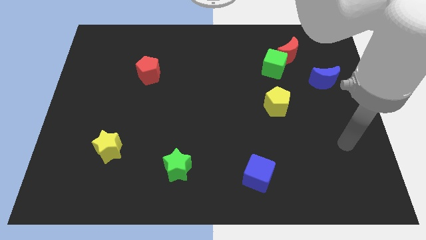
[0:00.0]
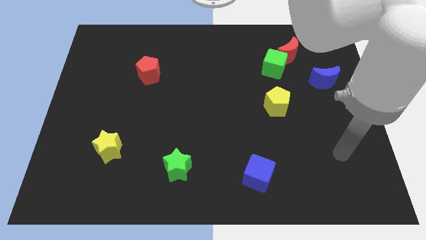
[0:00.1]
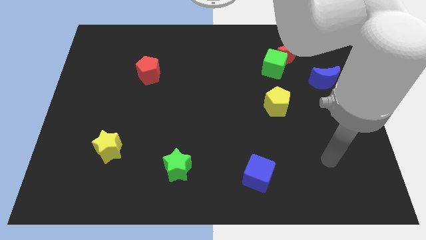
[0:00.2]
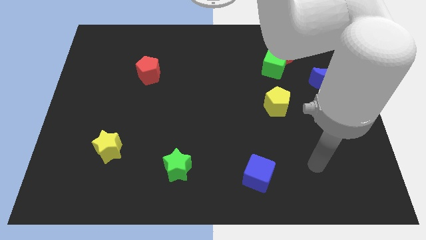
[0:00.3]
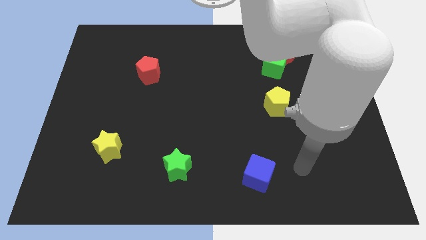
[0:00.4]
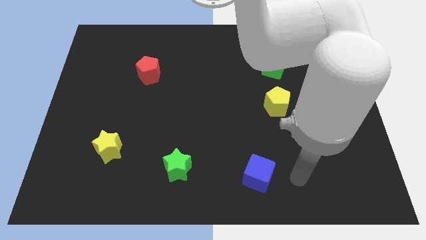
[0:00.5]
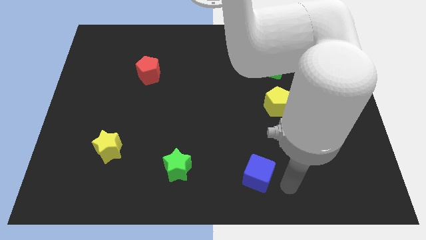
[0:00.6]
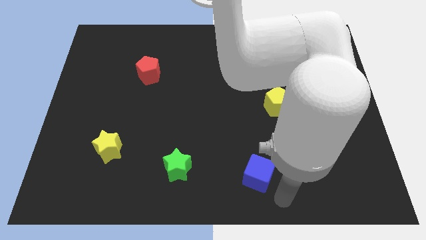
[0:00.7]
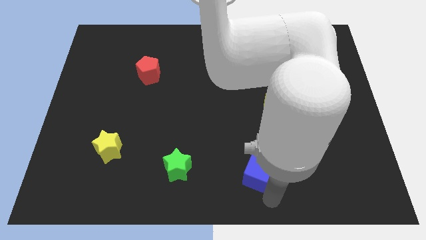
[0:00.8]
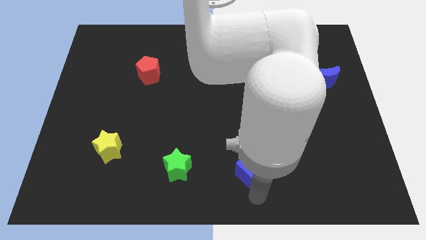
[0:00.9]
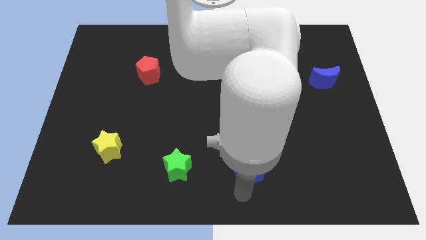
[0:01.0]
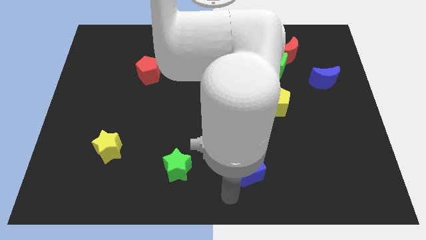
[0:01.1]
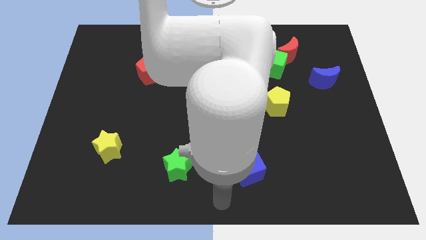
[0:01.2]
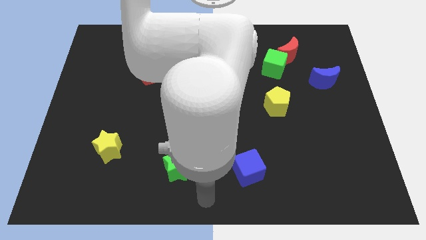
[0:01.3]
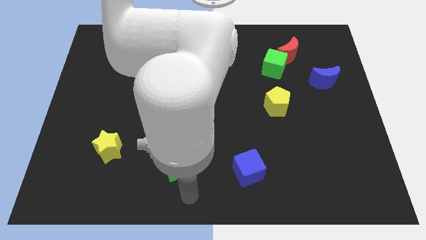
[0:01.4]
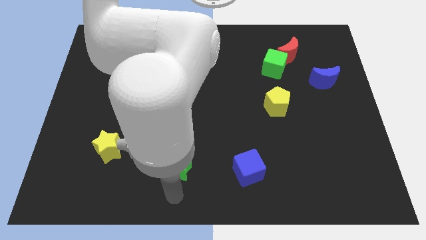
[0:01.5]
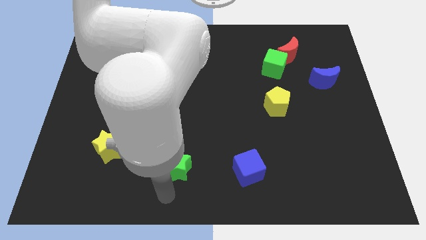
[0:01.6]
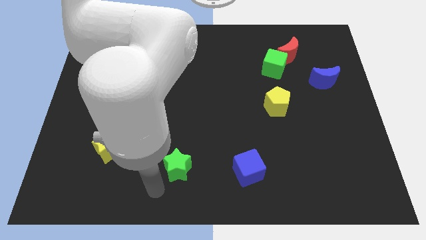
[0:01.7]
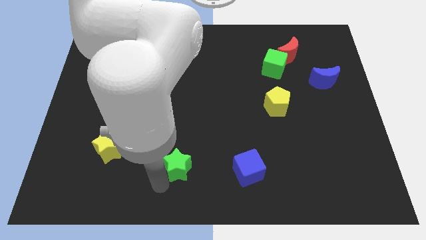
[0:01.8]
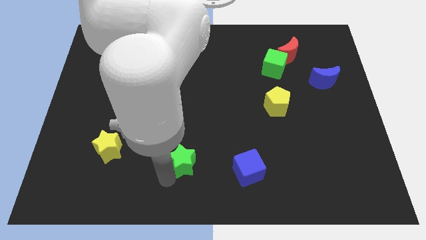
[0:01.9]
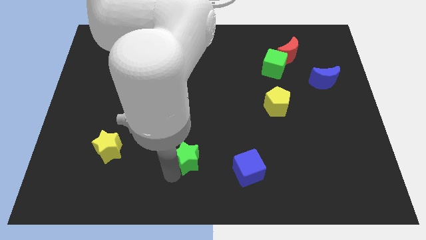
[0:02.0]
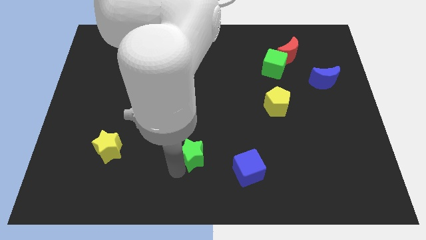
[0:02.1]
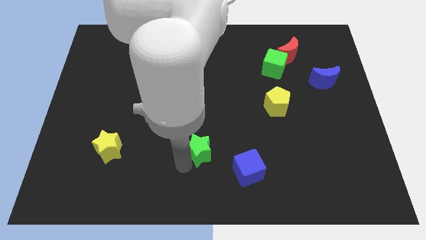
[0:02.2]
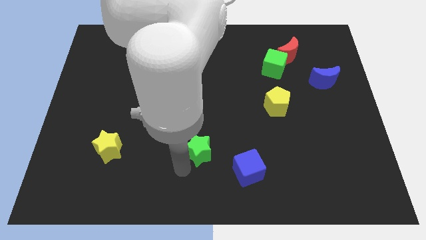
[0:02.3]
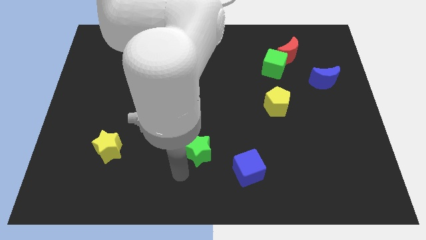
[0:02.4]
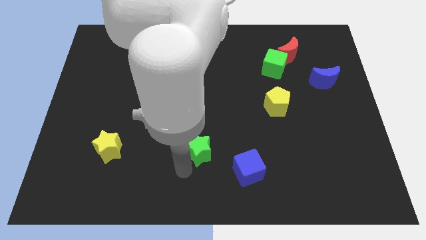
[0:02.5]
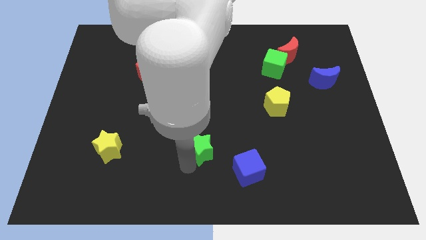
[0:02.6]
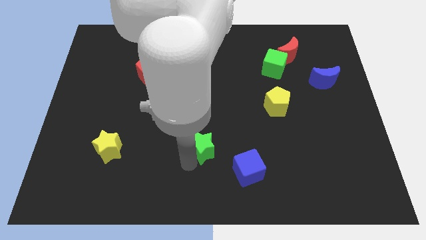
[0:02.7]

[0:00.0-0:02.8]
move the green star a bit upwards and right

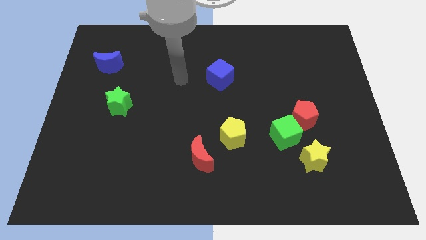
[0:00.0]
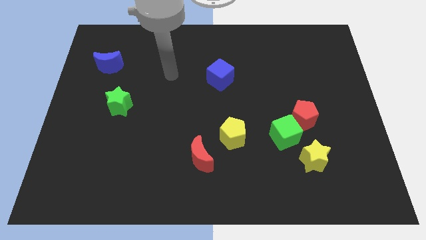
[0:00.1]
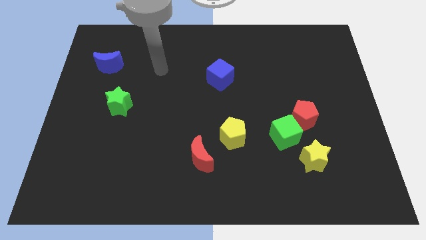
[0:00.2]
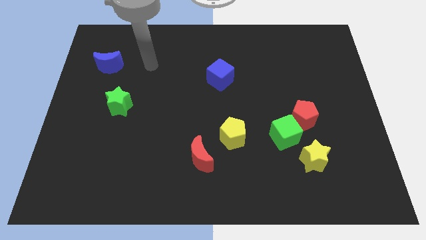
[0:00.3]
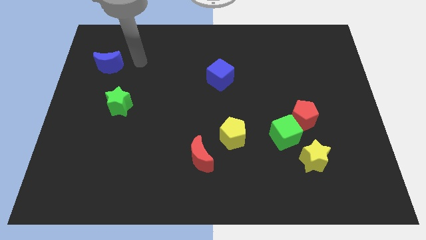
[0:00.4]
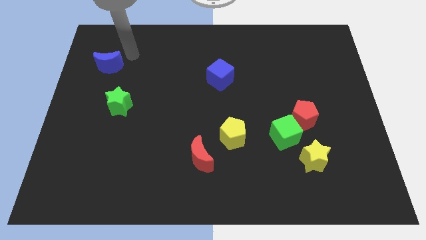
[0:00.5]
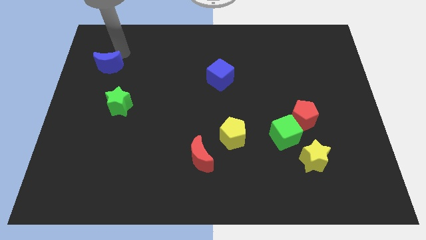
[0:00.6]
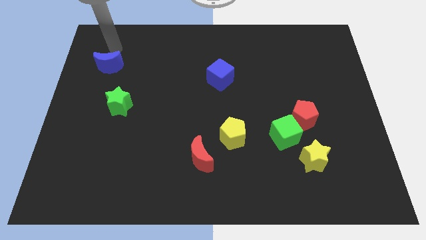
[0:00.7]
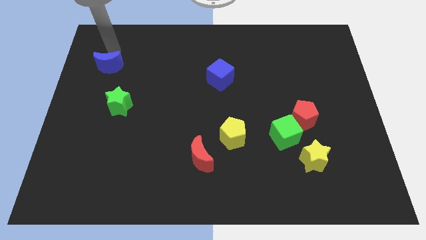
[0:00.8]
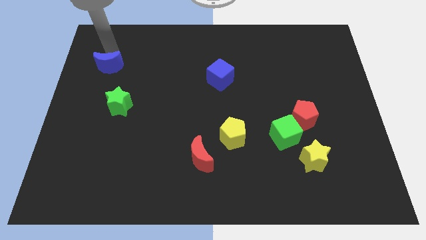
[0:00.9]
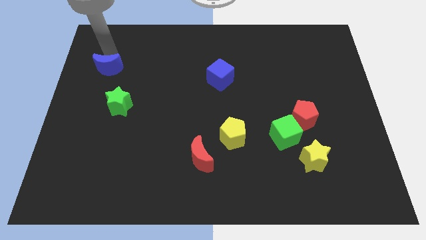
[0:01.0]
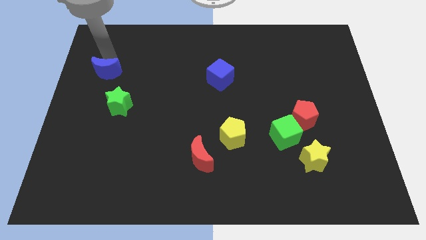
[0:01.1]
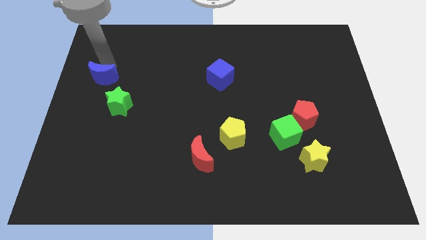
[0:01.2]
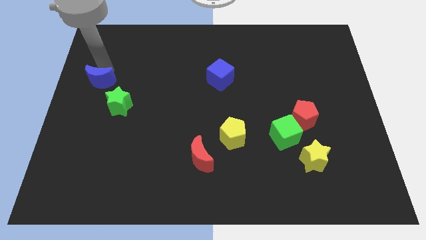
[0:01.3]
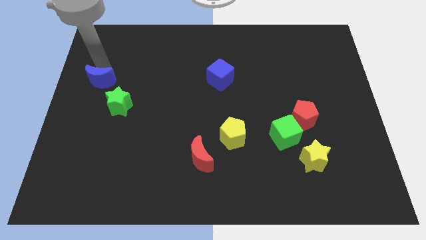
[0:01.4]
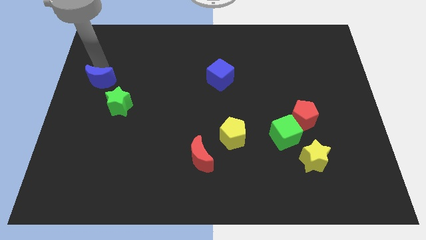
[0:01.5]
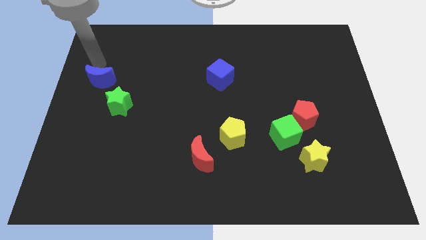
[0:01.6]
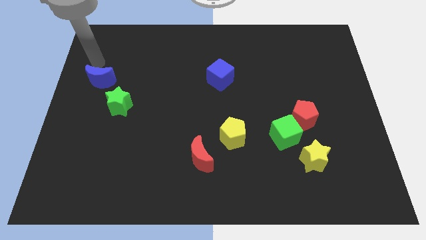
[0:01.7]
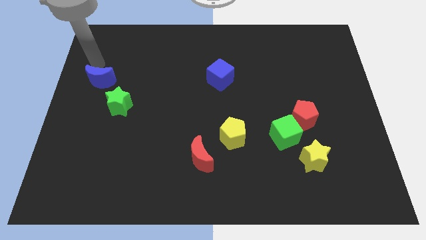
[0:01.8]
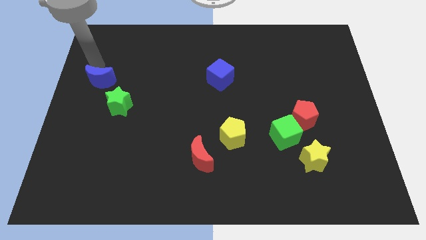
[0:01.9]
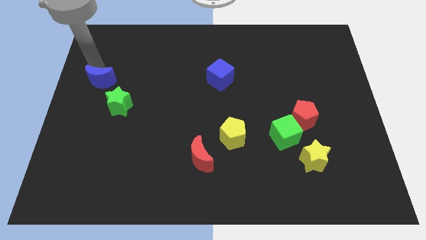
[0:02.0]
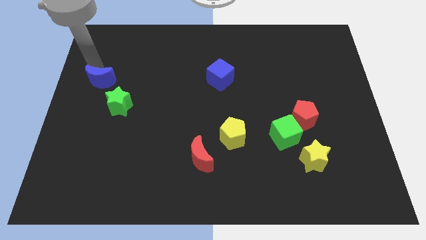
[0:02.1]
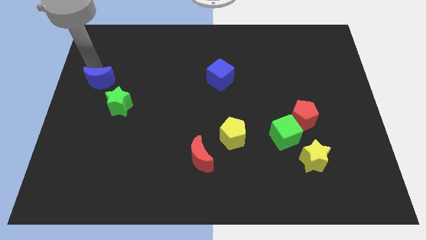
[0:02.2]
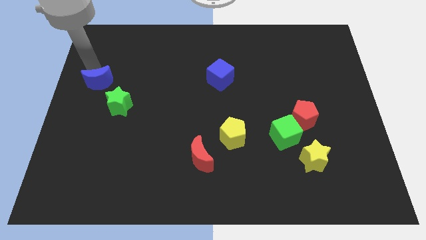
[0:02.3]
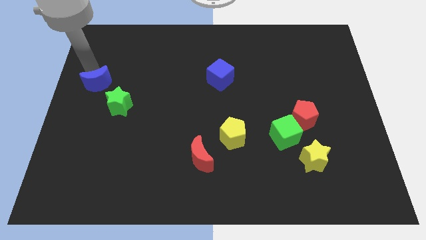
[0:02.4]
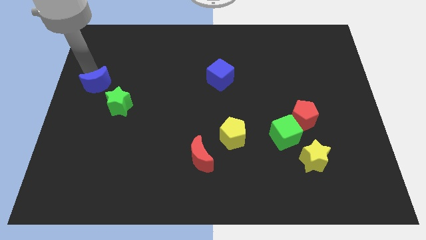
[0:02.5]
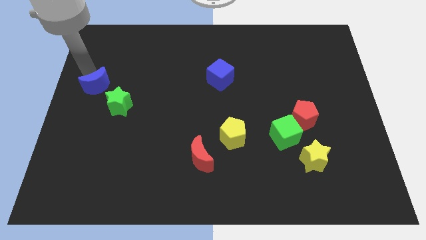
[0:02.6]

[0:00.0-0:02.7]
slightly slide the blue moon down

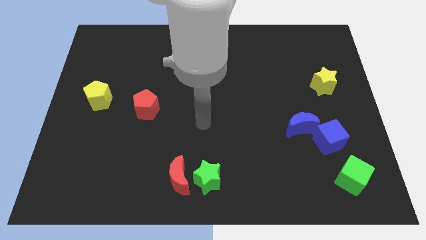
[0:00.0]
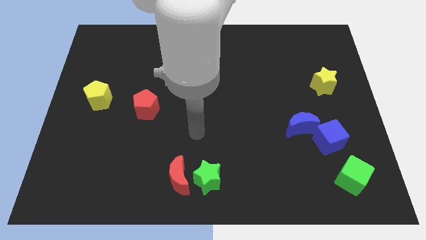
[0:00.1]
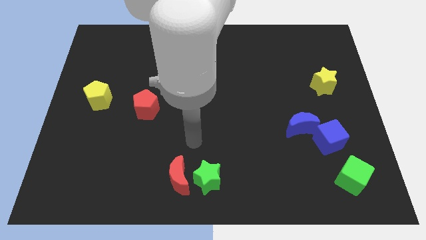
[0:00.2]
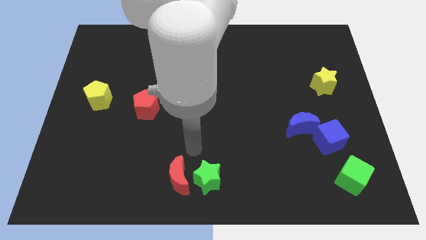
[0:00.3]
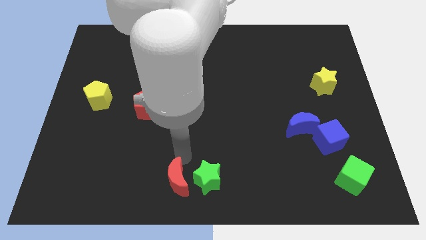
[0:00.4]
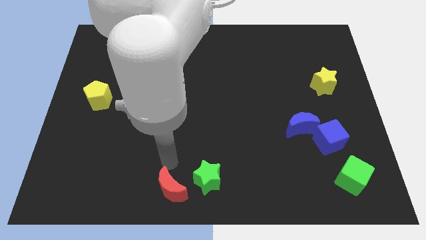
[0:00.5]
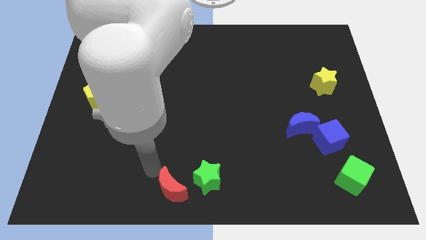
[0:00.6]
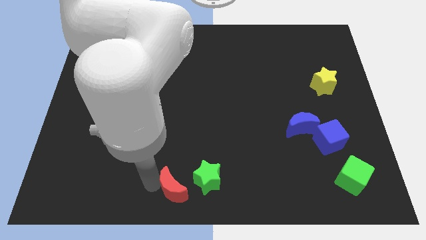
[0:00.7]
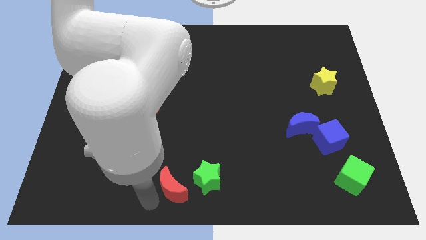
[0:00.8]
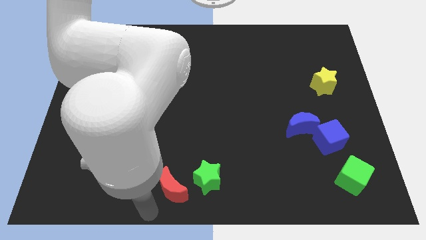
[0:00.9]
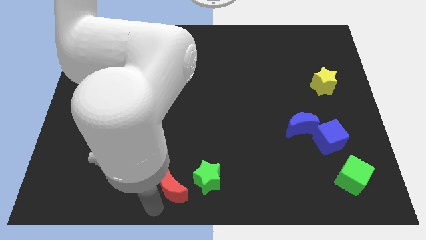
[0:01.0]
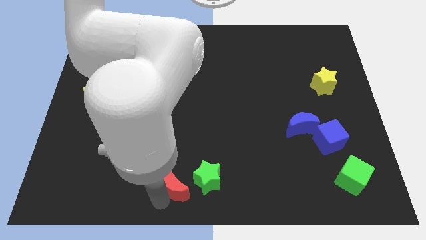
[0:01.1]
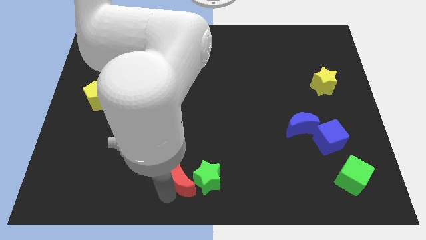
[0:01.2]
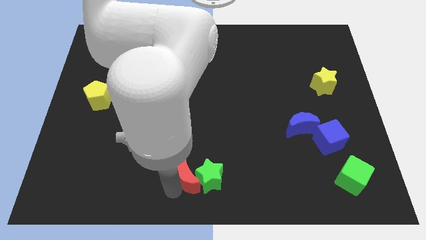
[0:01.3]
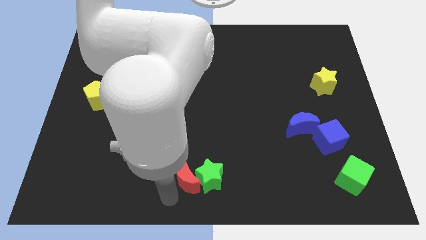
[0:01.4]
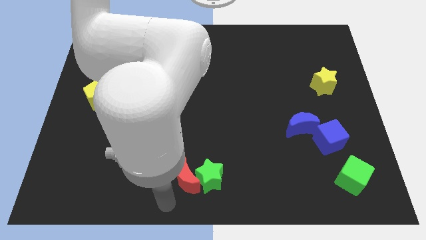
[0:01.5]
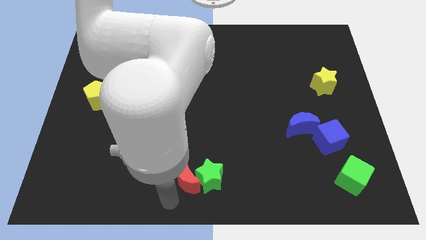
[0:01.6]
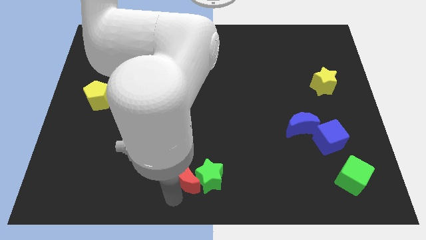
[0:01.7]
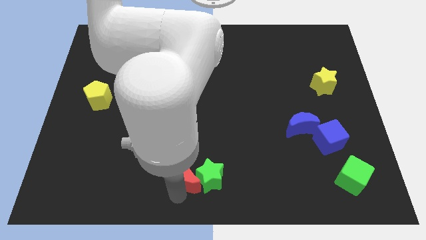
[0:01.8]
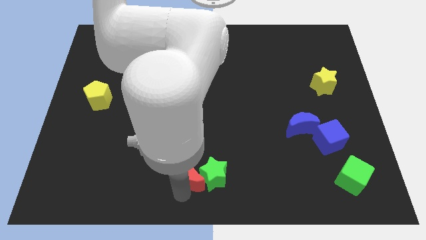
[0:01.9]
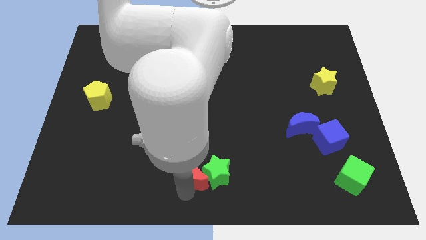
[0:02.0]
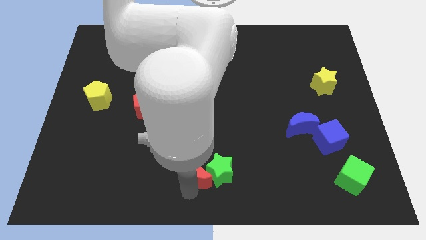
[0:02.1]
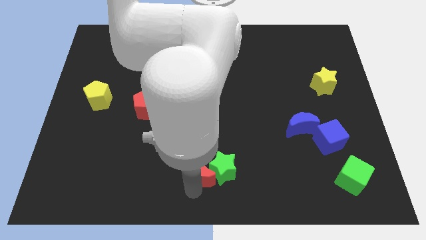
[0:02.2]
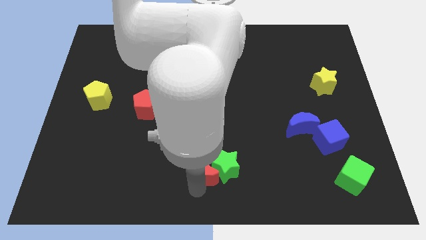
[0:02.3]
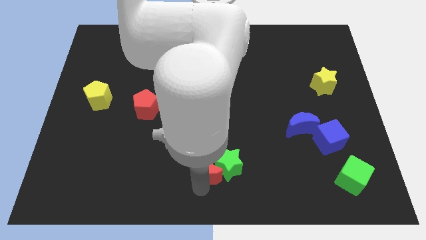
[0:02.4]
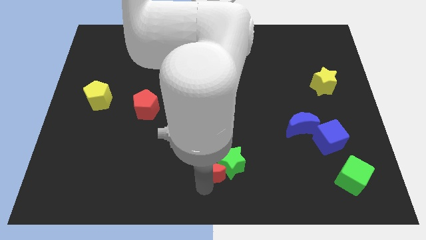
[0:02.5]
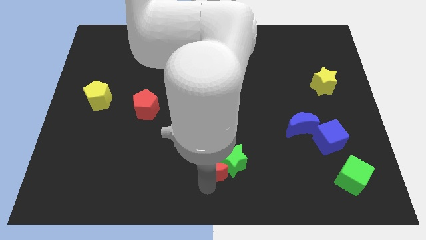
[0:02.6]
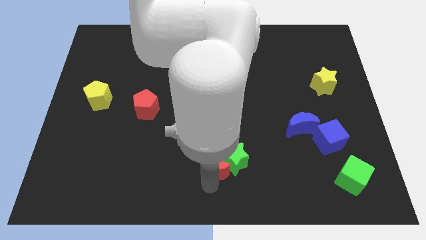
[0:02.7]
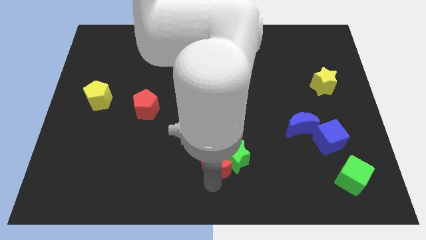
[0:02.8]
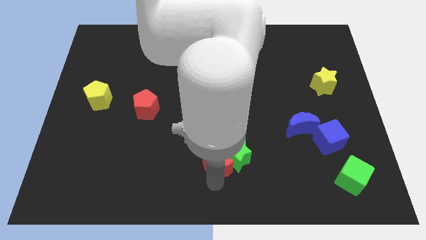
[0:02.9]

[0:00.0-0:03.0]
push the red moon a little bit diagonally upwards and to the right
